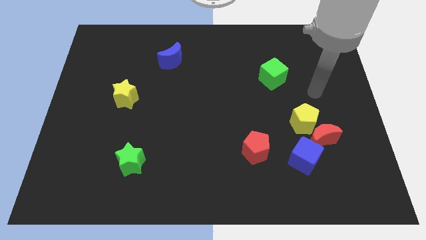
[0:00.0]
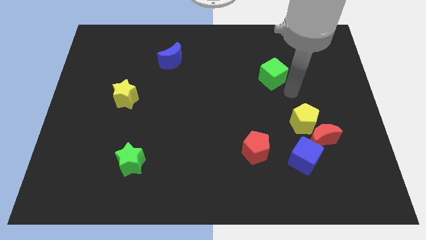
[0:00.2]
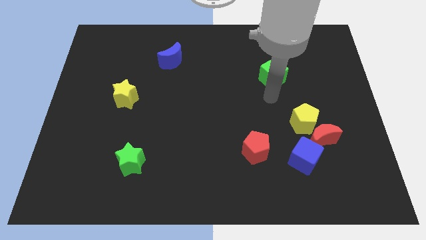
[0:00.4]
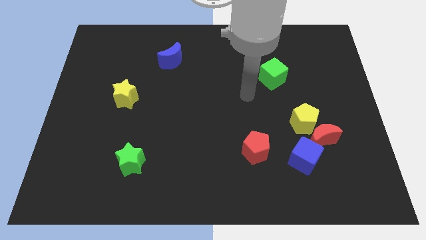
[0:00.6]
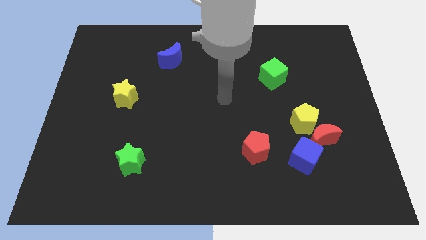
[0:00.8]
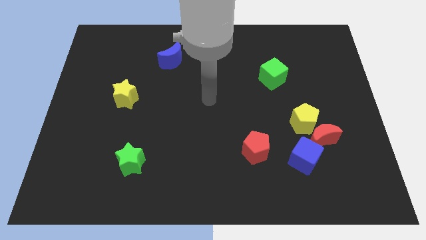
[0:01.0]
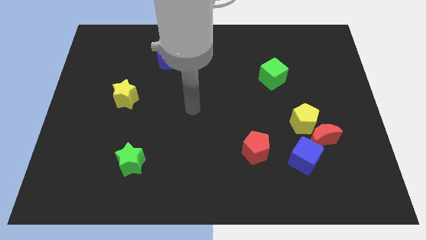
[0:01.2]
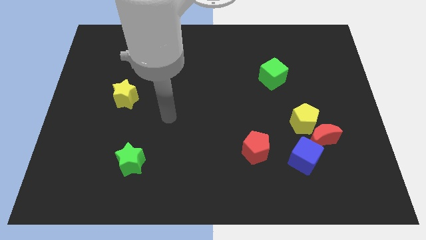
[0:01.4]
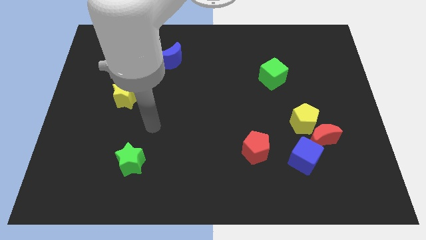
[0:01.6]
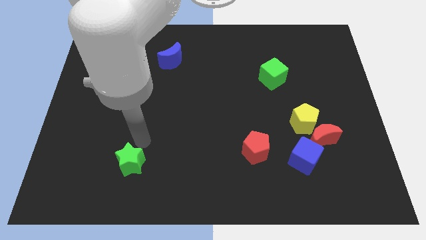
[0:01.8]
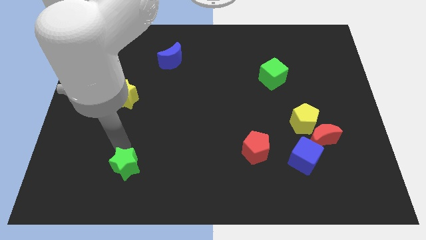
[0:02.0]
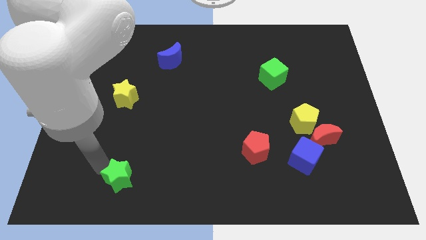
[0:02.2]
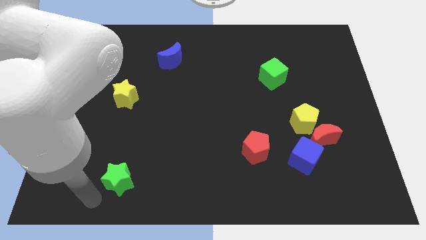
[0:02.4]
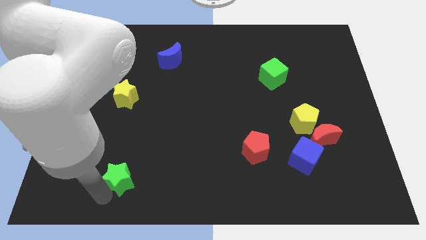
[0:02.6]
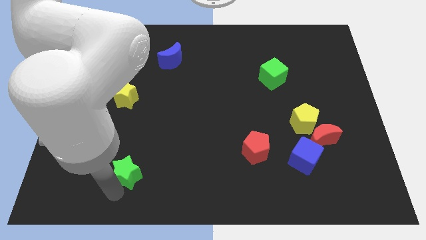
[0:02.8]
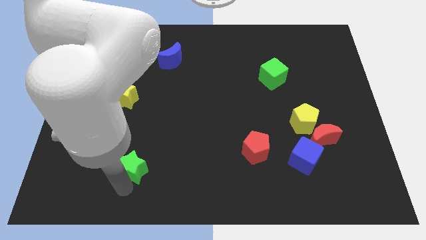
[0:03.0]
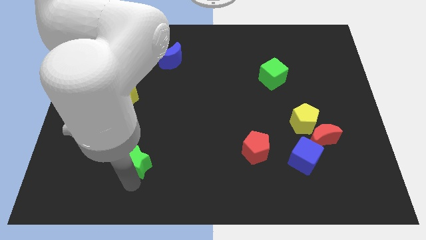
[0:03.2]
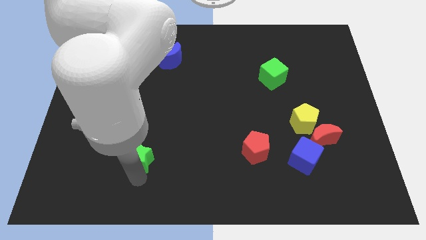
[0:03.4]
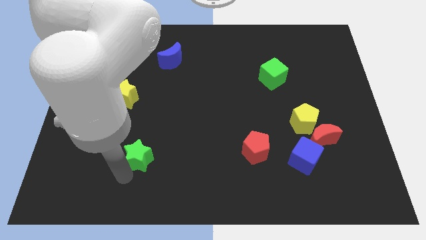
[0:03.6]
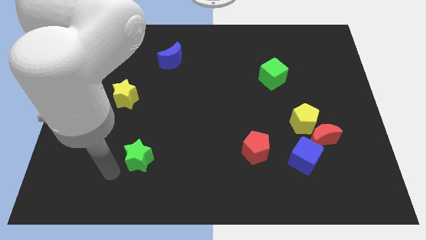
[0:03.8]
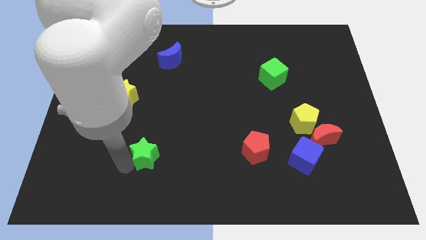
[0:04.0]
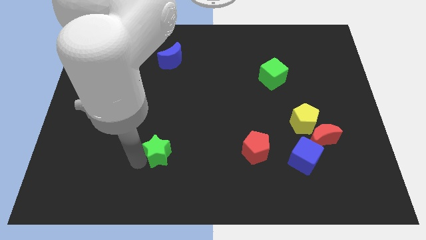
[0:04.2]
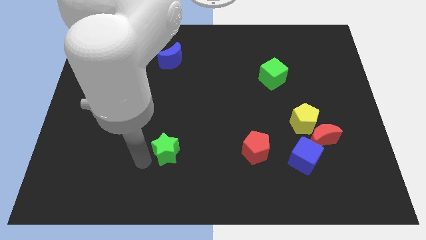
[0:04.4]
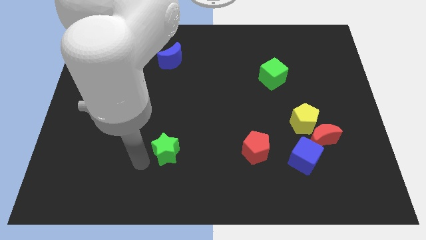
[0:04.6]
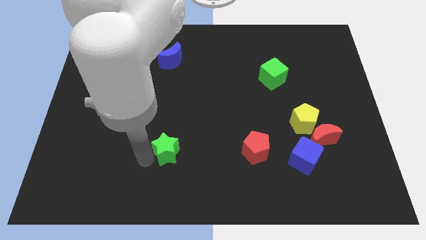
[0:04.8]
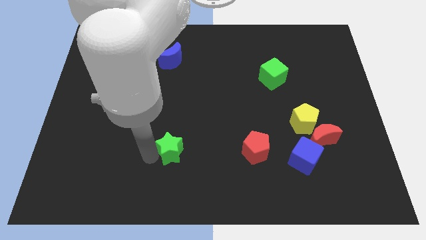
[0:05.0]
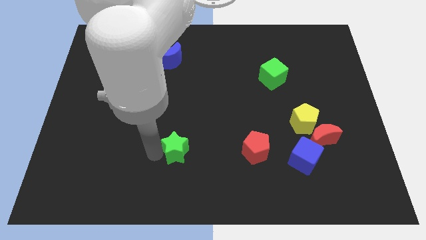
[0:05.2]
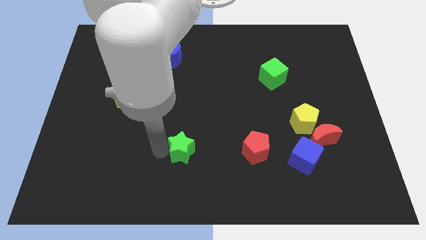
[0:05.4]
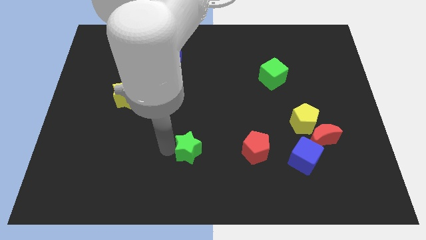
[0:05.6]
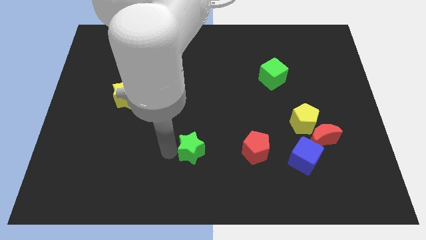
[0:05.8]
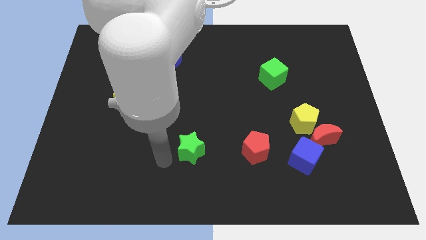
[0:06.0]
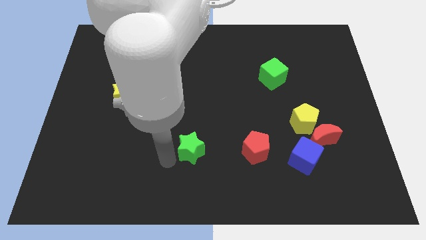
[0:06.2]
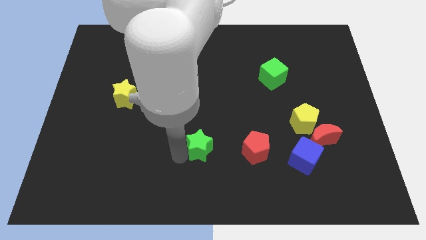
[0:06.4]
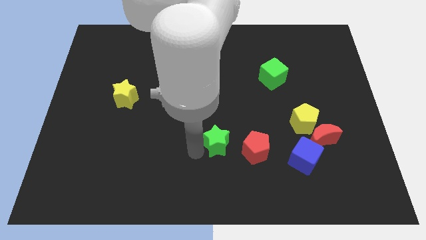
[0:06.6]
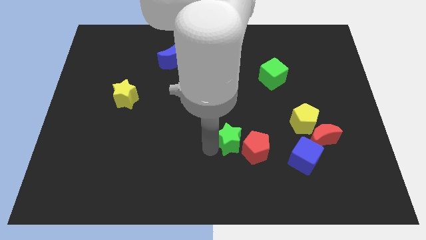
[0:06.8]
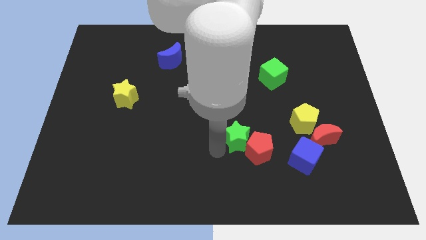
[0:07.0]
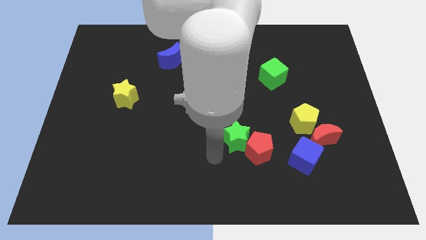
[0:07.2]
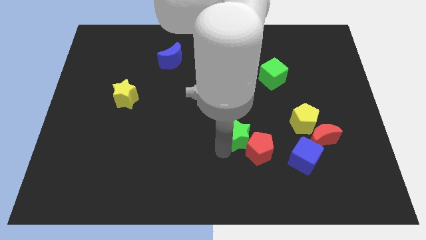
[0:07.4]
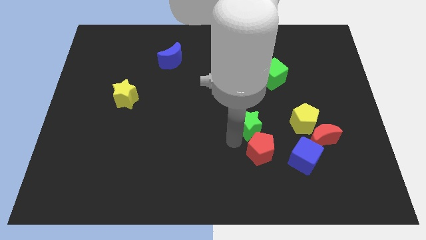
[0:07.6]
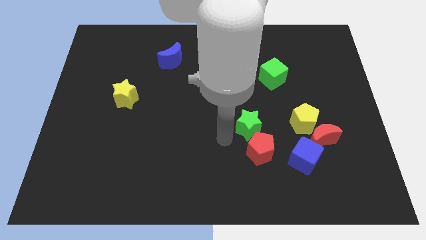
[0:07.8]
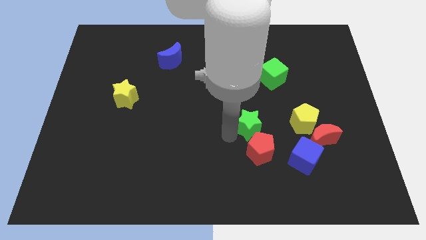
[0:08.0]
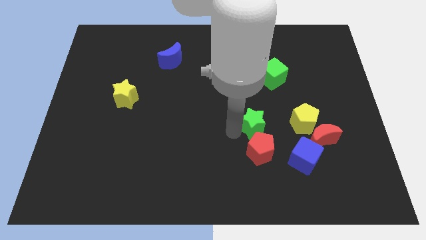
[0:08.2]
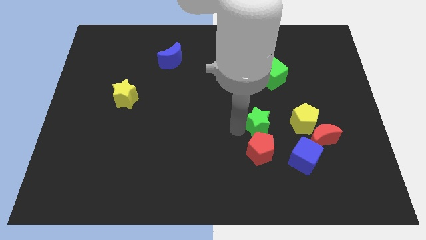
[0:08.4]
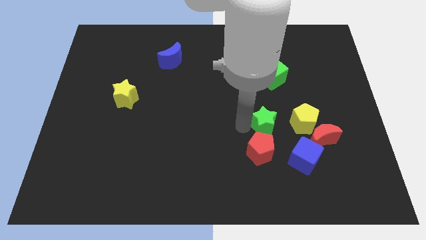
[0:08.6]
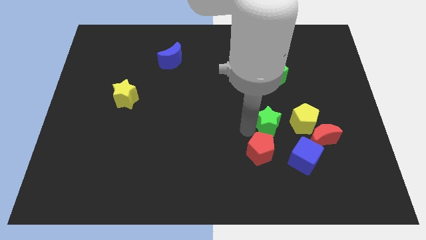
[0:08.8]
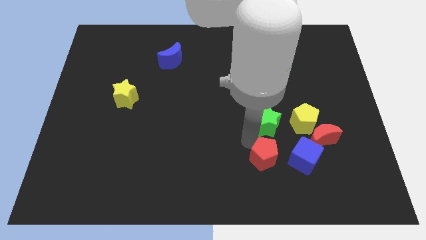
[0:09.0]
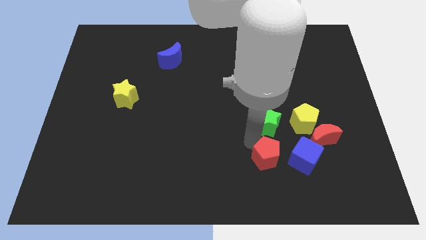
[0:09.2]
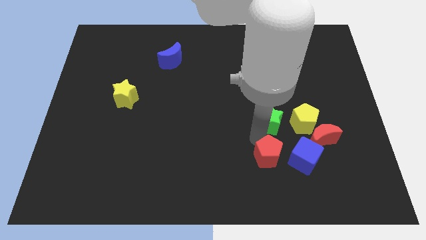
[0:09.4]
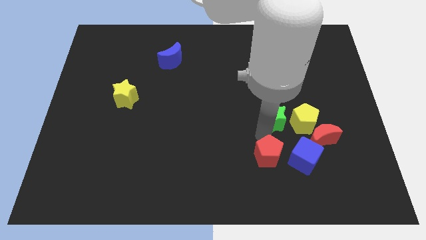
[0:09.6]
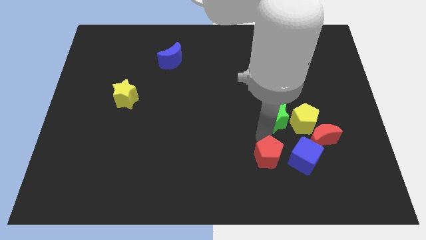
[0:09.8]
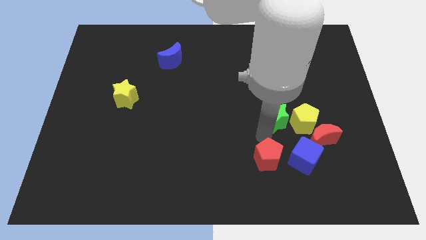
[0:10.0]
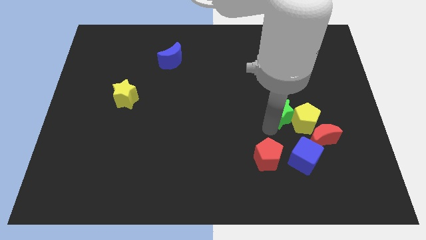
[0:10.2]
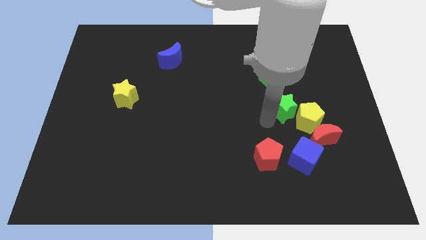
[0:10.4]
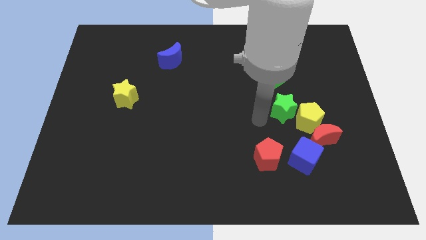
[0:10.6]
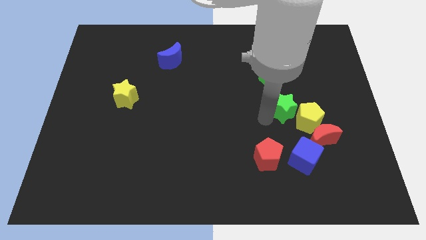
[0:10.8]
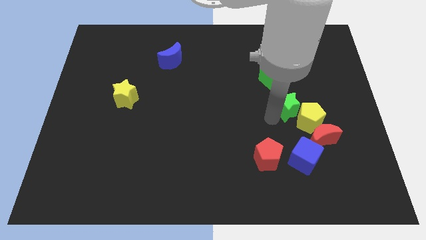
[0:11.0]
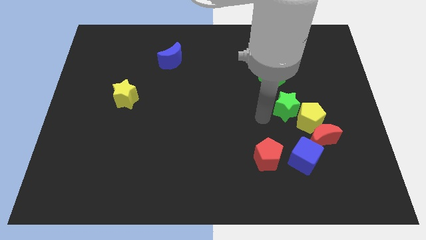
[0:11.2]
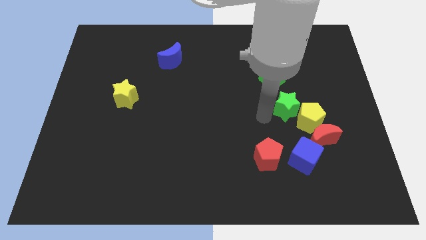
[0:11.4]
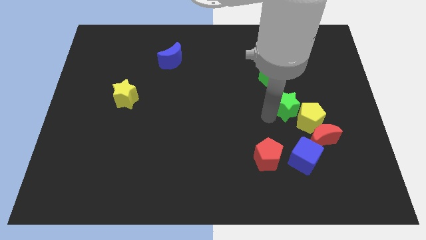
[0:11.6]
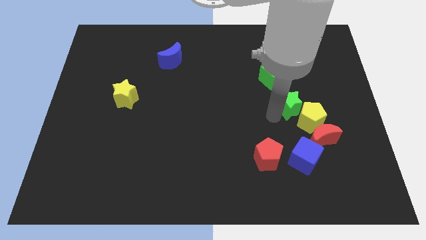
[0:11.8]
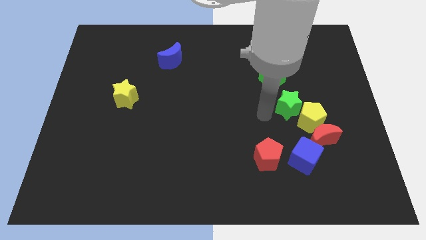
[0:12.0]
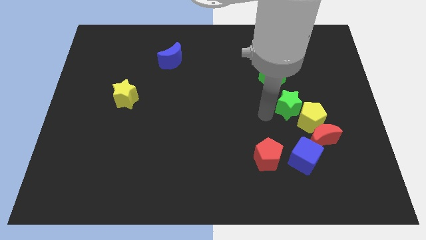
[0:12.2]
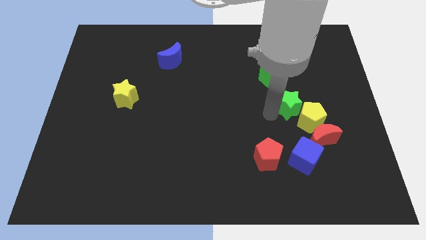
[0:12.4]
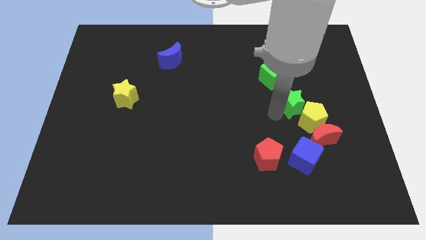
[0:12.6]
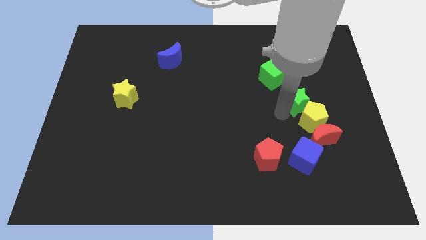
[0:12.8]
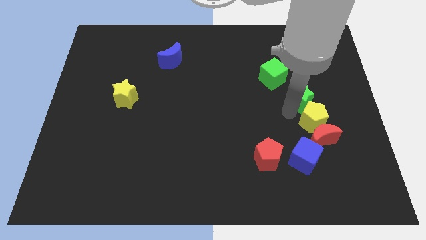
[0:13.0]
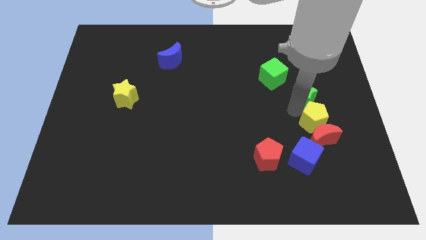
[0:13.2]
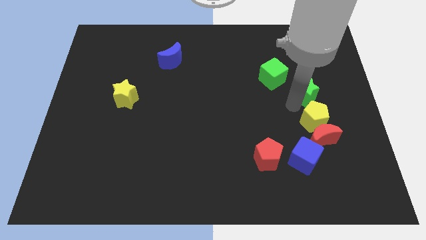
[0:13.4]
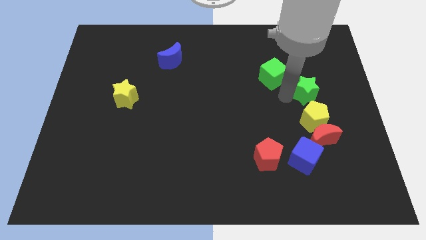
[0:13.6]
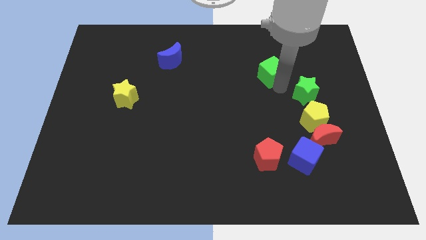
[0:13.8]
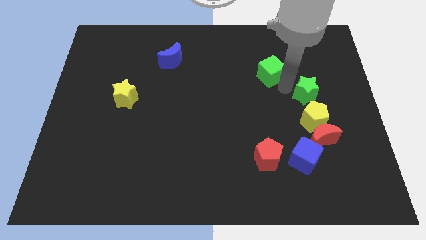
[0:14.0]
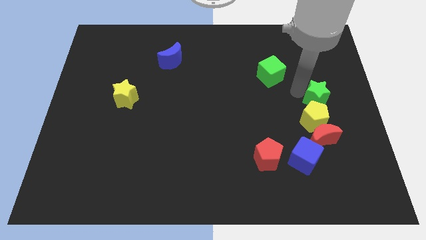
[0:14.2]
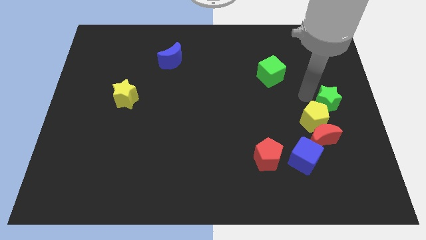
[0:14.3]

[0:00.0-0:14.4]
slide the green star to the right side
